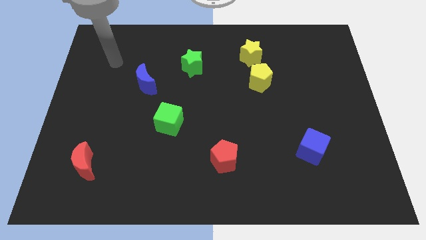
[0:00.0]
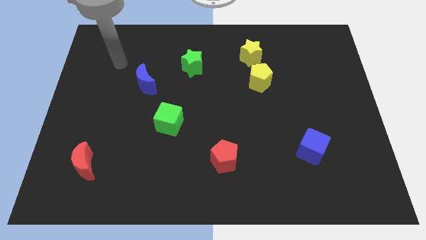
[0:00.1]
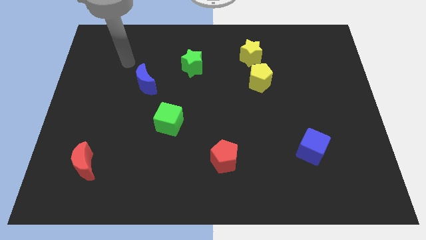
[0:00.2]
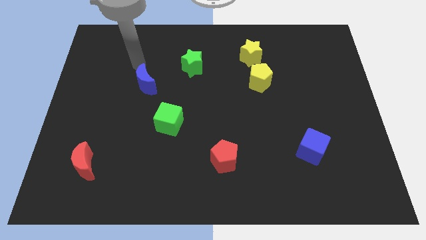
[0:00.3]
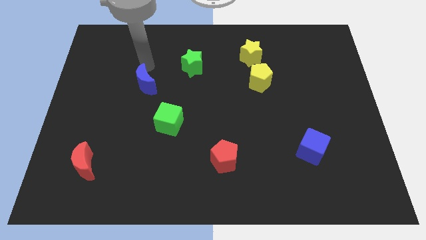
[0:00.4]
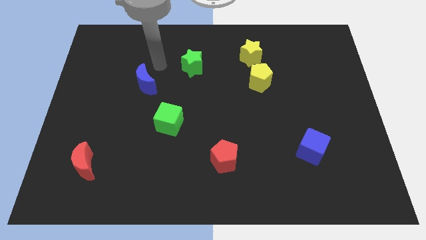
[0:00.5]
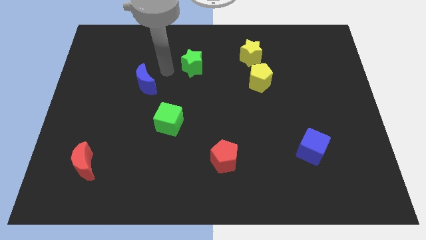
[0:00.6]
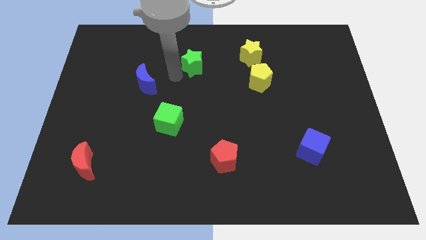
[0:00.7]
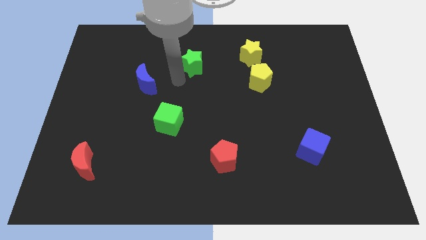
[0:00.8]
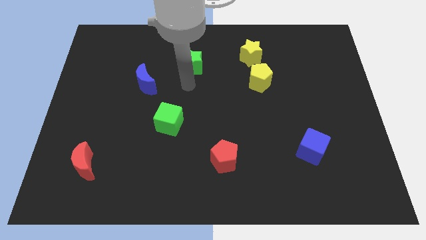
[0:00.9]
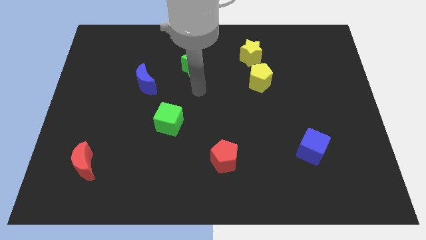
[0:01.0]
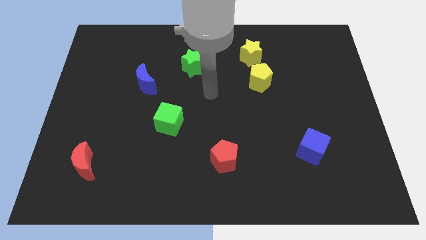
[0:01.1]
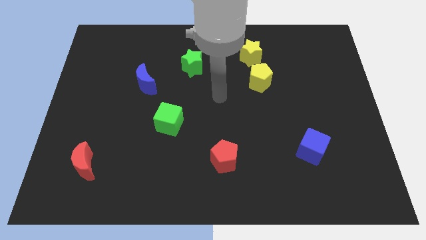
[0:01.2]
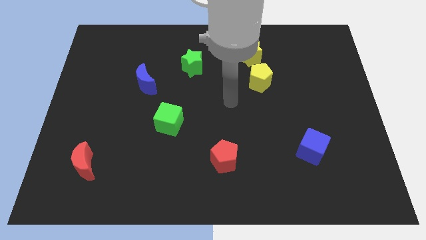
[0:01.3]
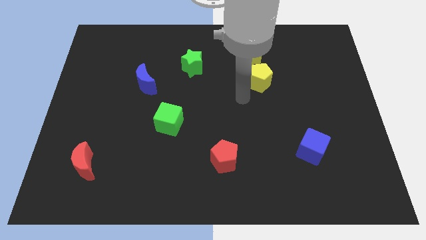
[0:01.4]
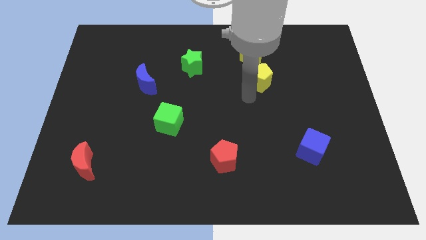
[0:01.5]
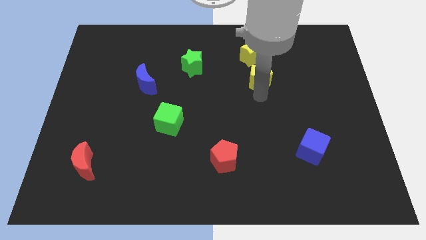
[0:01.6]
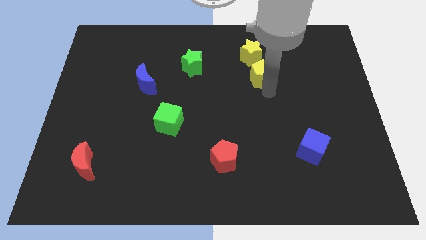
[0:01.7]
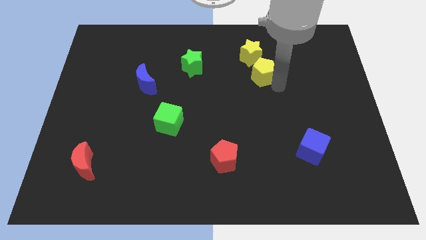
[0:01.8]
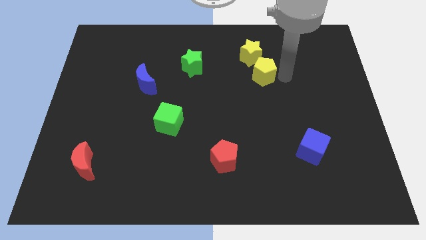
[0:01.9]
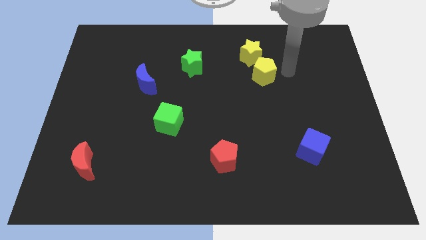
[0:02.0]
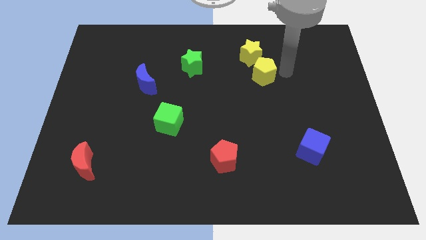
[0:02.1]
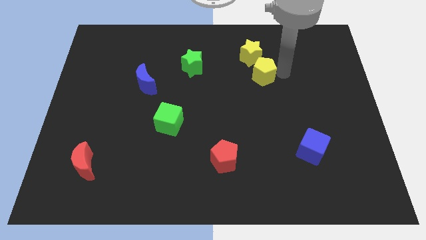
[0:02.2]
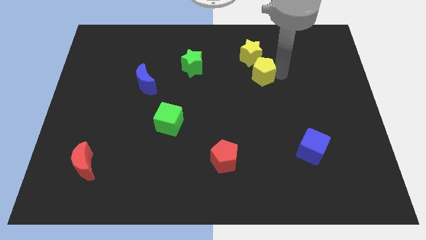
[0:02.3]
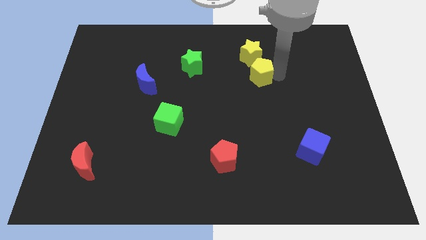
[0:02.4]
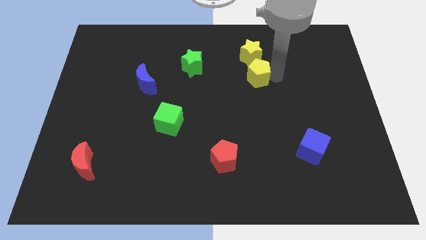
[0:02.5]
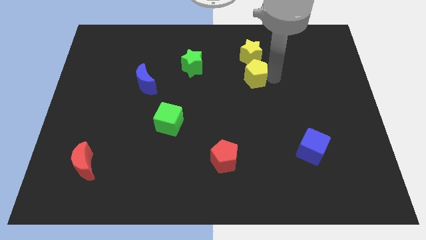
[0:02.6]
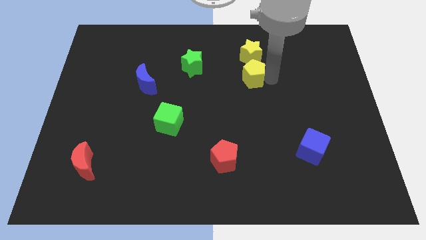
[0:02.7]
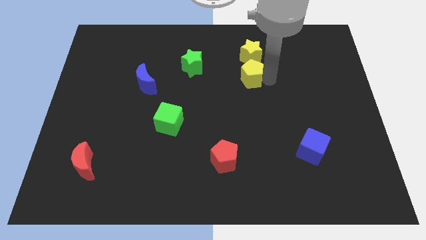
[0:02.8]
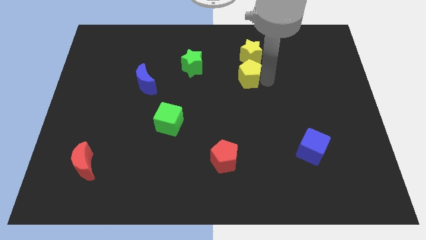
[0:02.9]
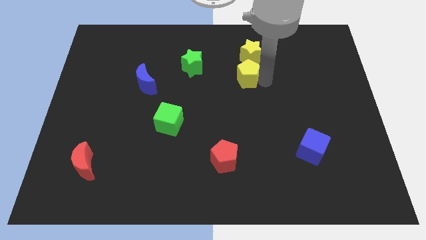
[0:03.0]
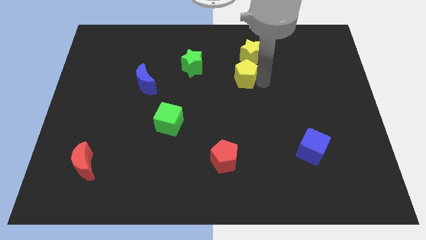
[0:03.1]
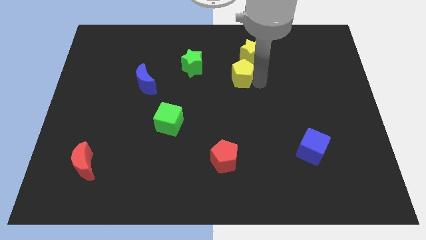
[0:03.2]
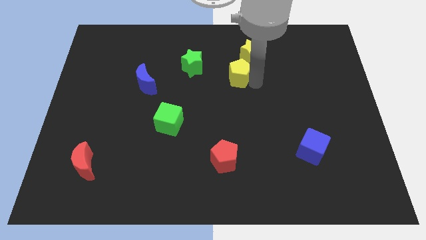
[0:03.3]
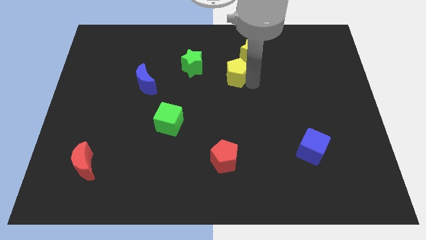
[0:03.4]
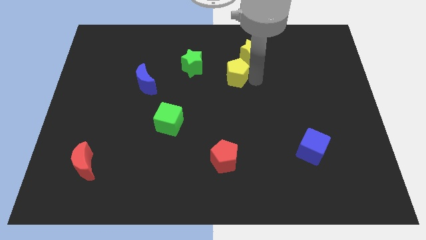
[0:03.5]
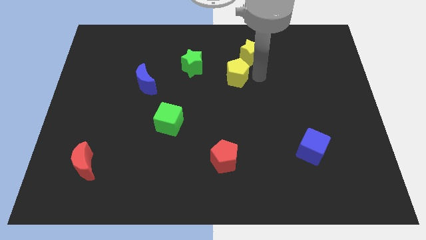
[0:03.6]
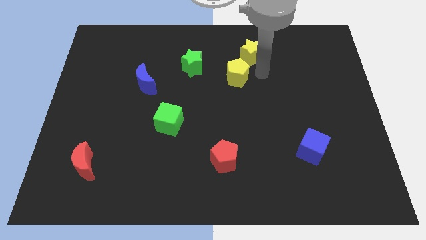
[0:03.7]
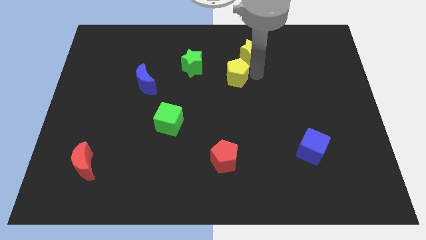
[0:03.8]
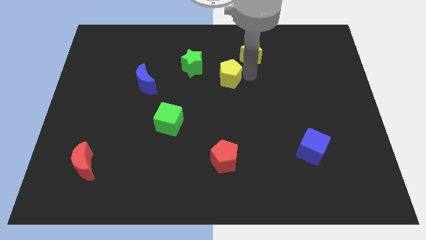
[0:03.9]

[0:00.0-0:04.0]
slightly move the yellow pentagon to the left

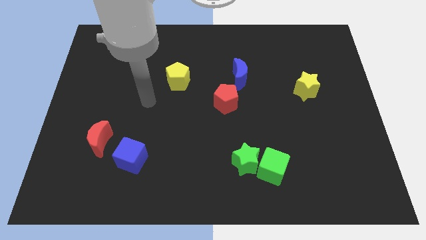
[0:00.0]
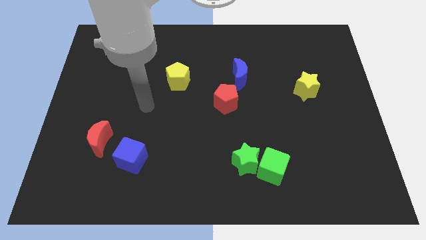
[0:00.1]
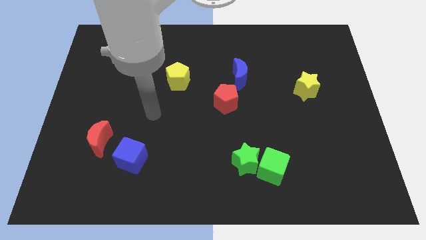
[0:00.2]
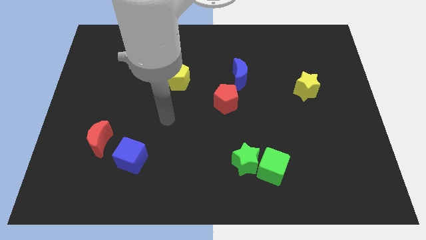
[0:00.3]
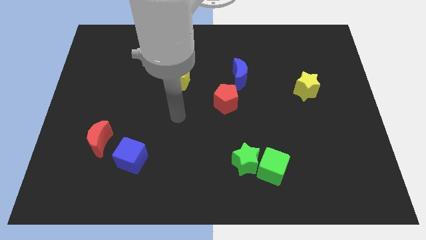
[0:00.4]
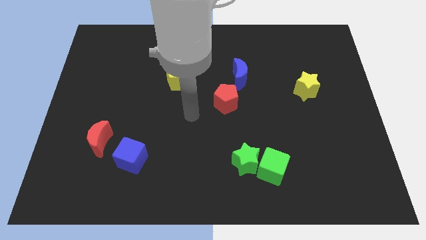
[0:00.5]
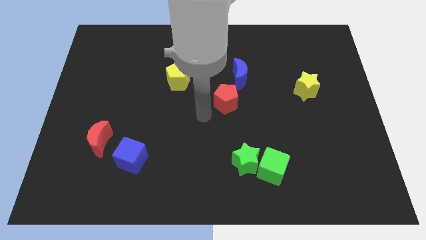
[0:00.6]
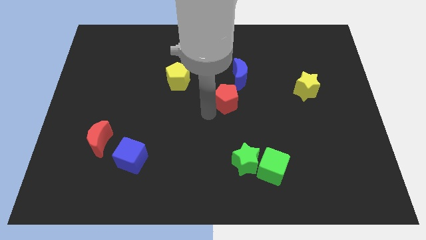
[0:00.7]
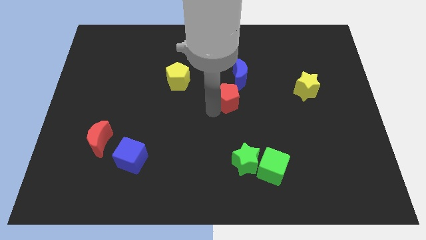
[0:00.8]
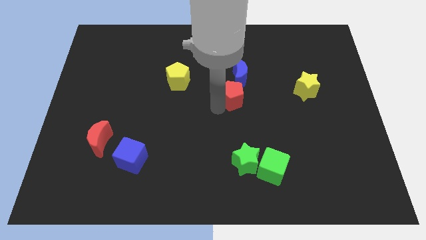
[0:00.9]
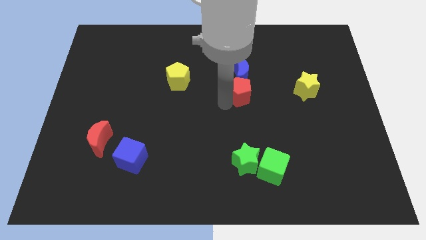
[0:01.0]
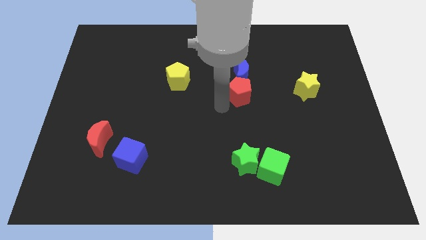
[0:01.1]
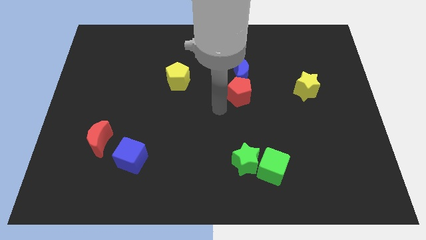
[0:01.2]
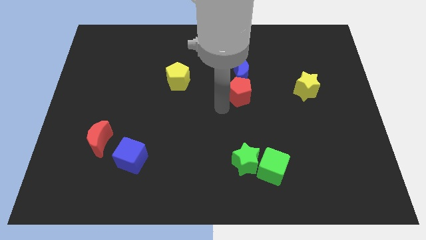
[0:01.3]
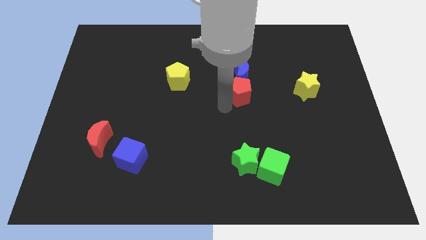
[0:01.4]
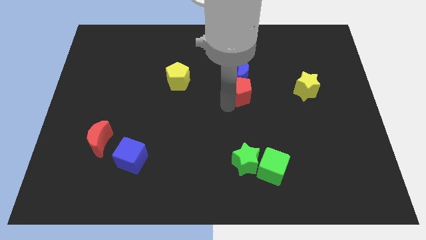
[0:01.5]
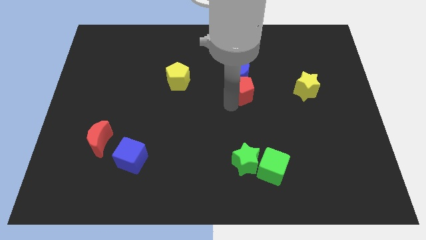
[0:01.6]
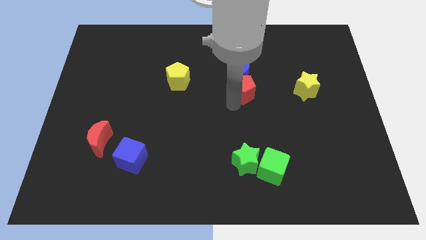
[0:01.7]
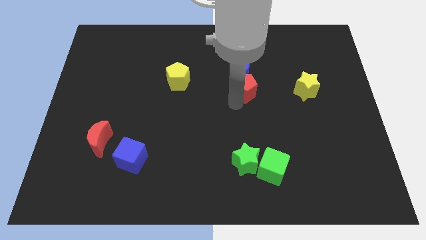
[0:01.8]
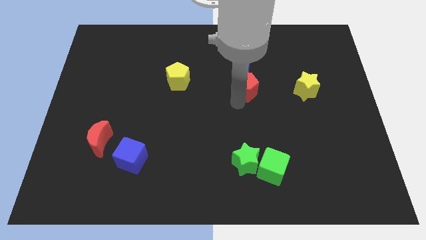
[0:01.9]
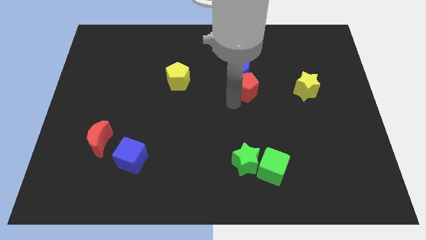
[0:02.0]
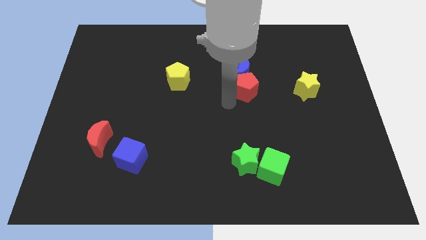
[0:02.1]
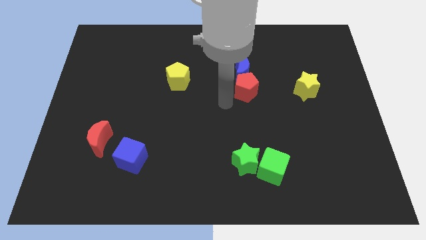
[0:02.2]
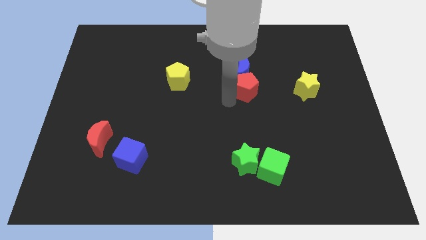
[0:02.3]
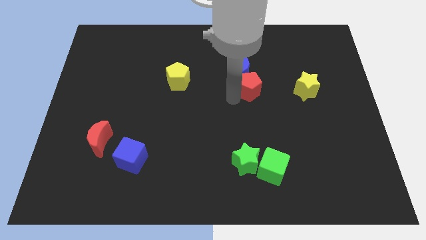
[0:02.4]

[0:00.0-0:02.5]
slightly move the red pentagon up and right diagonally

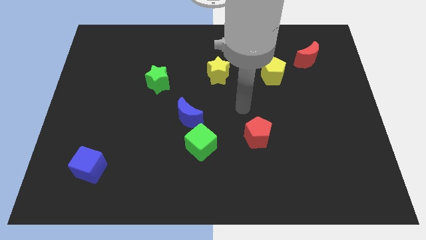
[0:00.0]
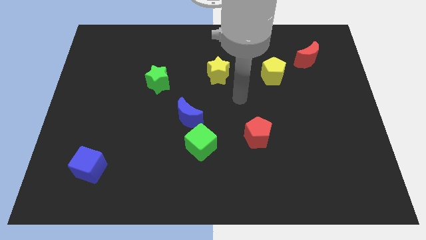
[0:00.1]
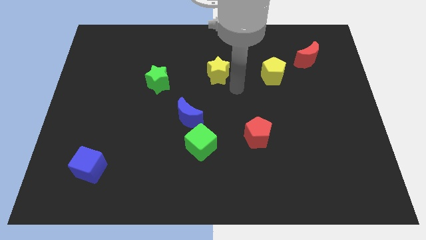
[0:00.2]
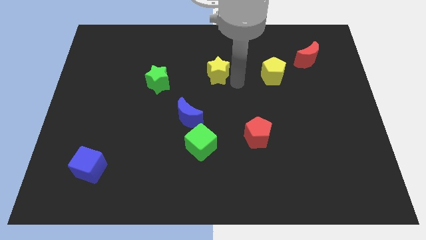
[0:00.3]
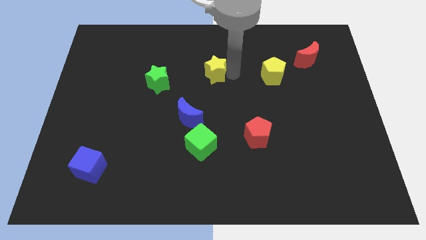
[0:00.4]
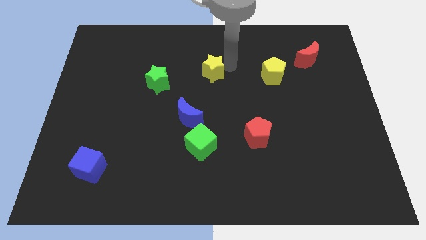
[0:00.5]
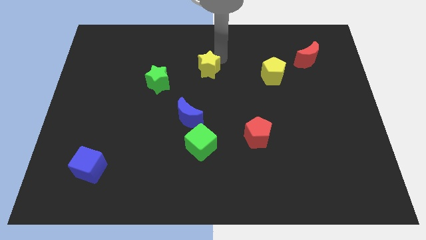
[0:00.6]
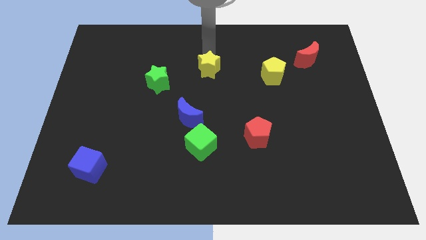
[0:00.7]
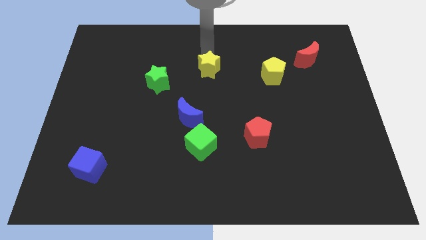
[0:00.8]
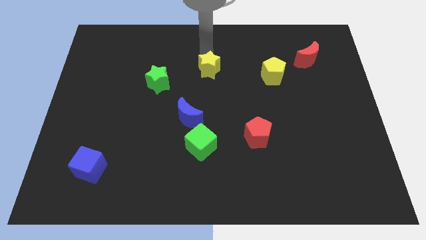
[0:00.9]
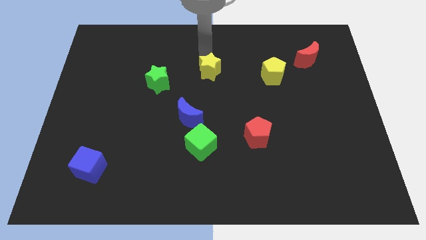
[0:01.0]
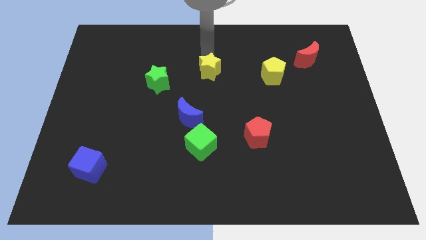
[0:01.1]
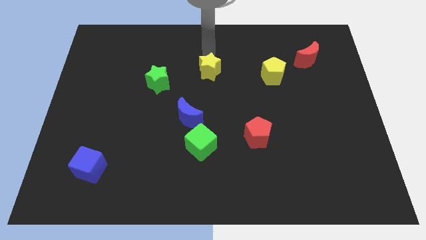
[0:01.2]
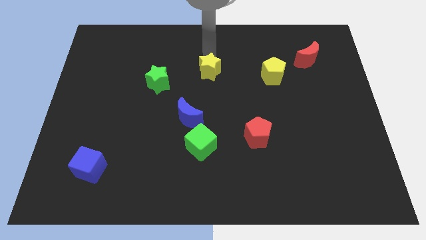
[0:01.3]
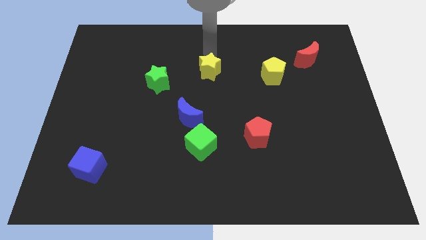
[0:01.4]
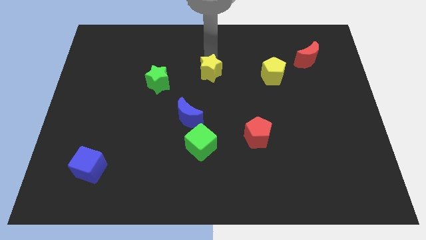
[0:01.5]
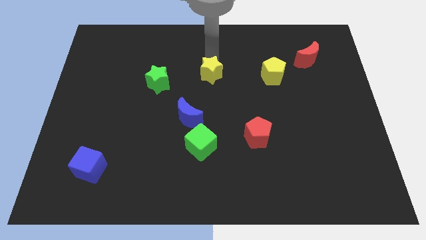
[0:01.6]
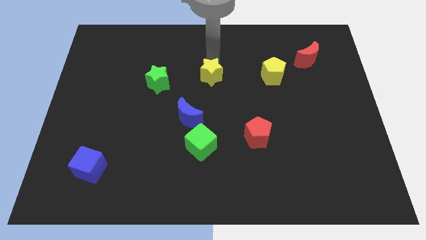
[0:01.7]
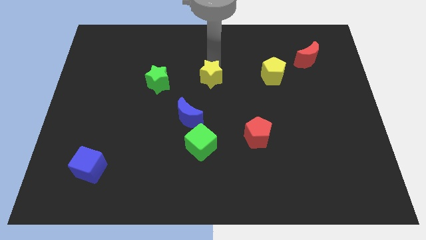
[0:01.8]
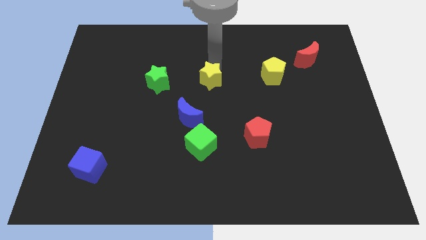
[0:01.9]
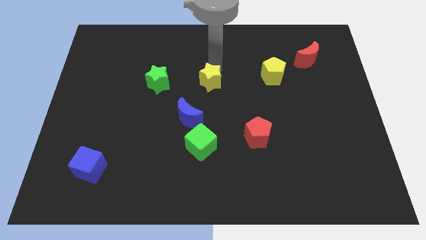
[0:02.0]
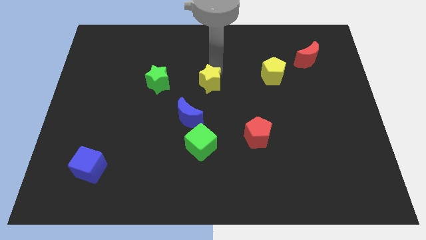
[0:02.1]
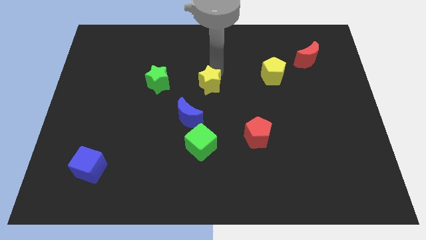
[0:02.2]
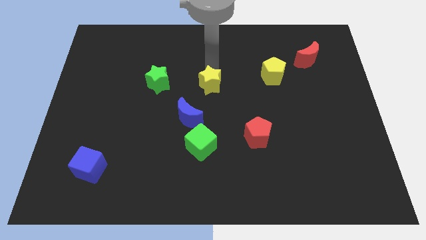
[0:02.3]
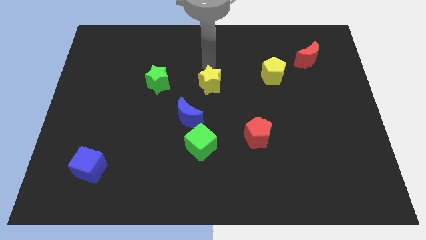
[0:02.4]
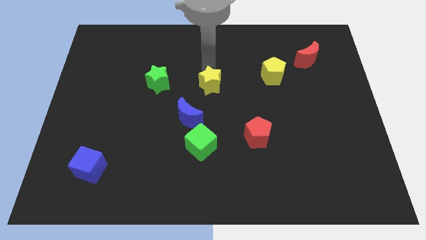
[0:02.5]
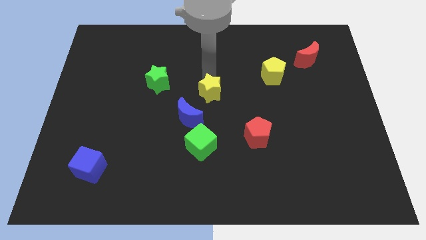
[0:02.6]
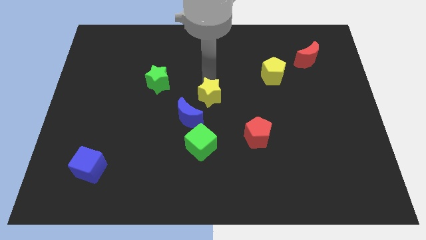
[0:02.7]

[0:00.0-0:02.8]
slightly move the yellow star downwards
